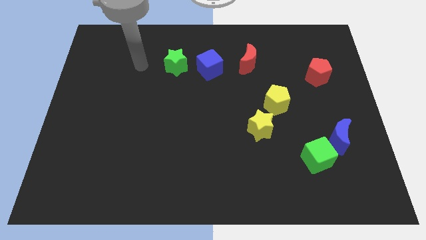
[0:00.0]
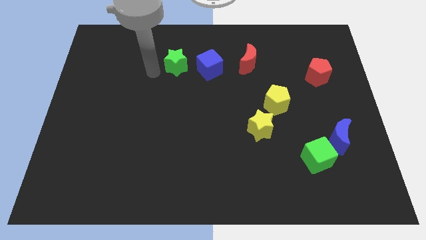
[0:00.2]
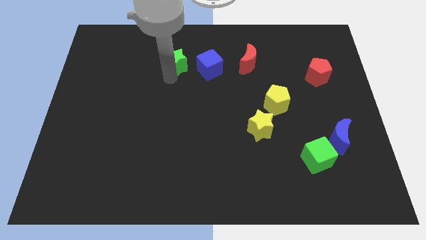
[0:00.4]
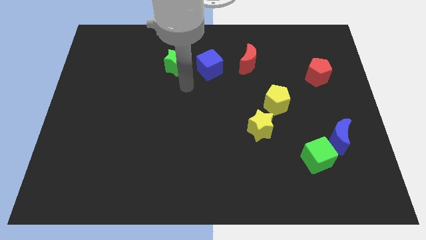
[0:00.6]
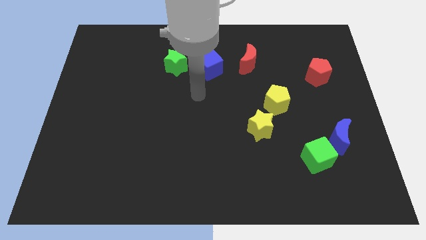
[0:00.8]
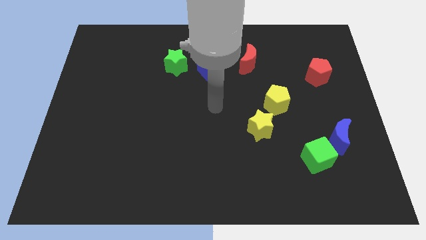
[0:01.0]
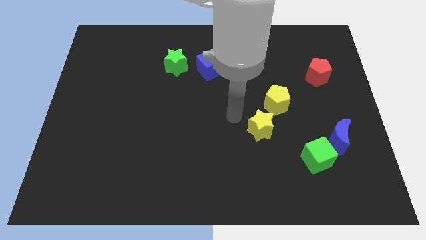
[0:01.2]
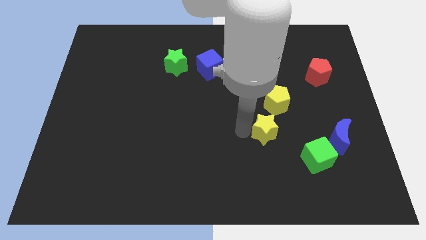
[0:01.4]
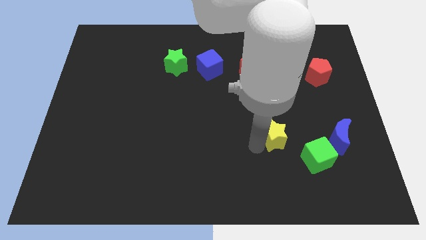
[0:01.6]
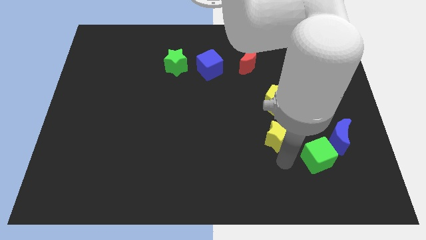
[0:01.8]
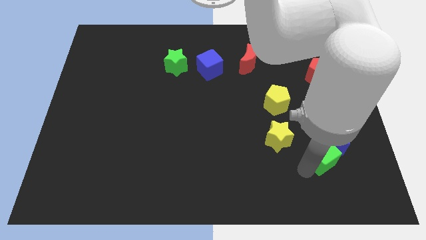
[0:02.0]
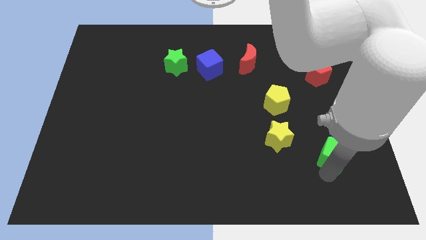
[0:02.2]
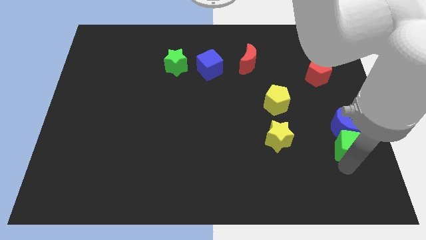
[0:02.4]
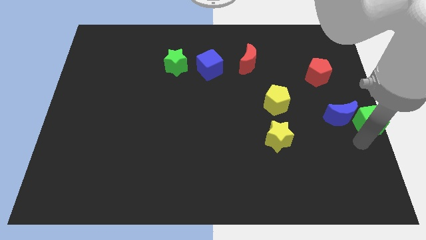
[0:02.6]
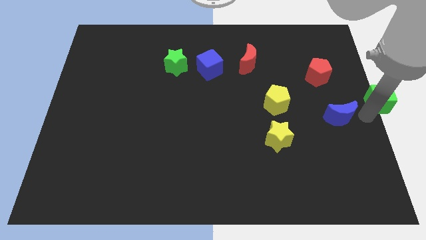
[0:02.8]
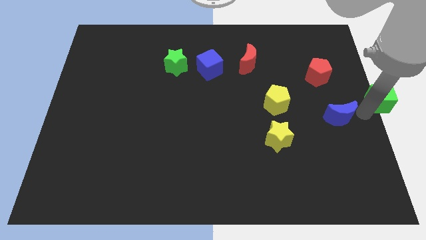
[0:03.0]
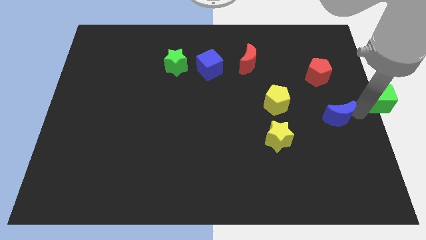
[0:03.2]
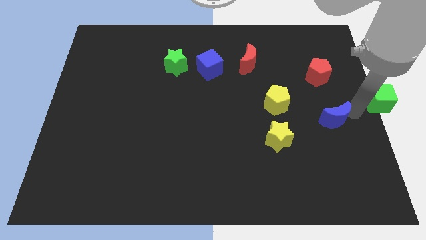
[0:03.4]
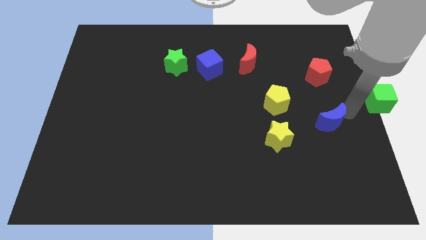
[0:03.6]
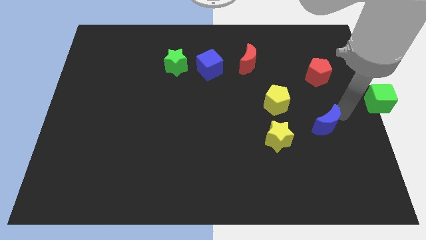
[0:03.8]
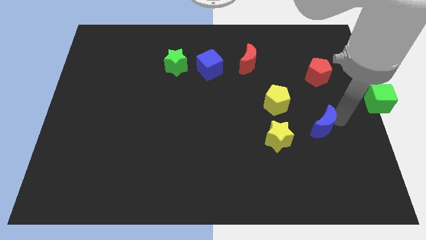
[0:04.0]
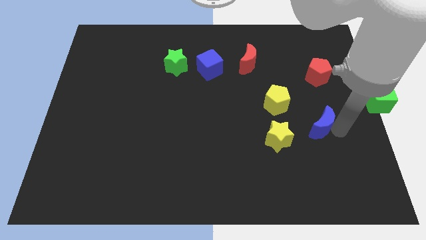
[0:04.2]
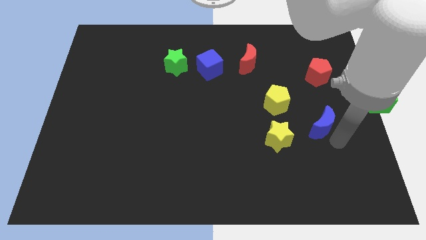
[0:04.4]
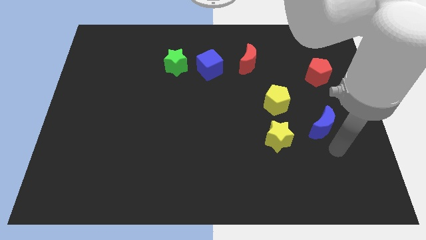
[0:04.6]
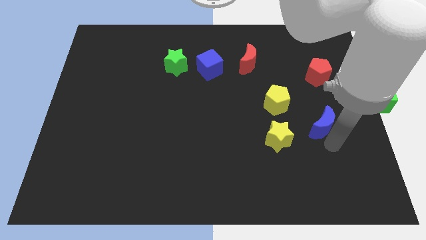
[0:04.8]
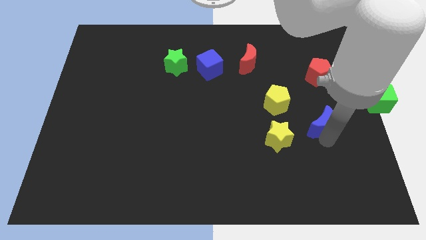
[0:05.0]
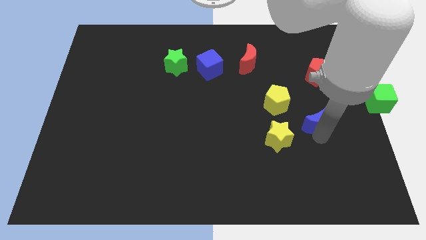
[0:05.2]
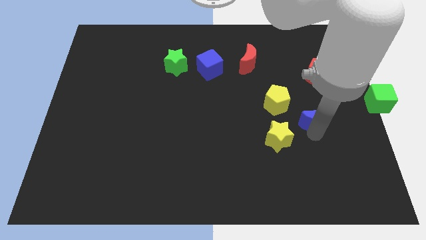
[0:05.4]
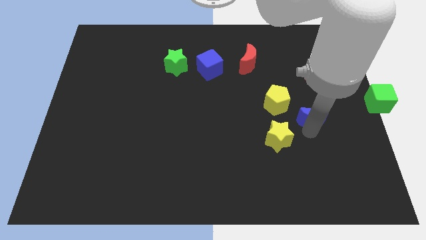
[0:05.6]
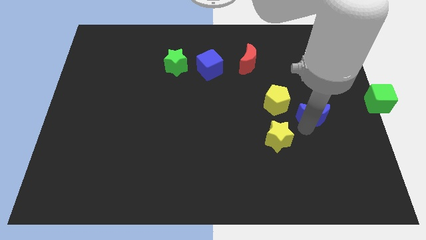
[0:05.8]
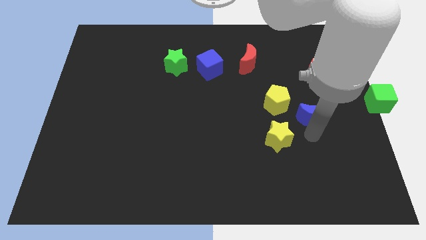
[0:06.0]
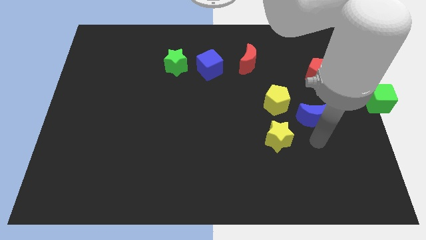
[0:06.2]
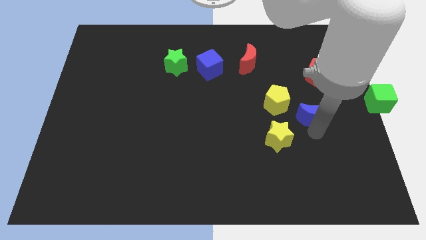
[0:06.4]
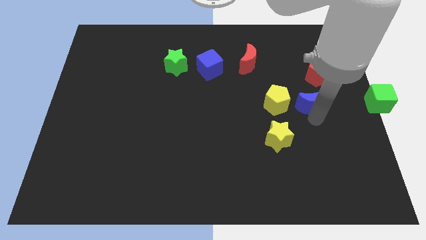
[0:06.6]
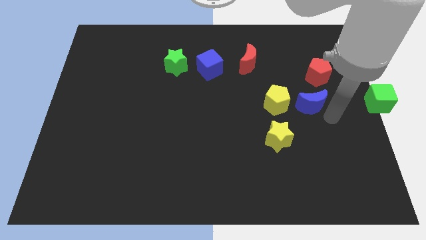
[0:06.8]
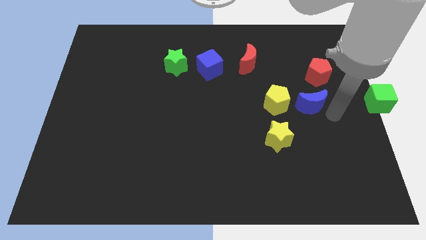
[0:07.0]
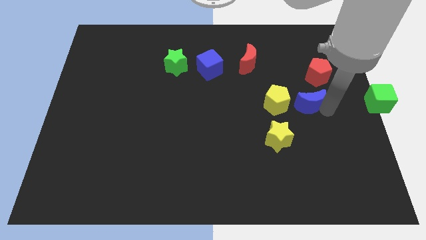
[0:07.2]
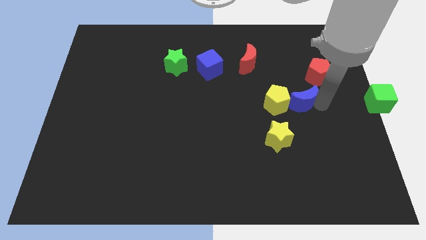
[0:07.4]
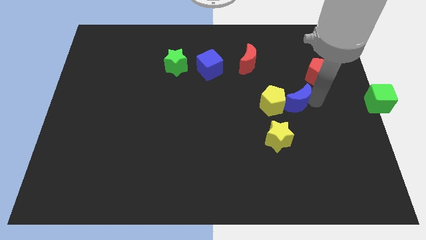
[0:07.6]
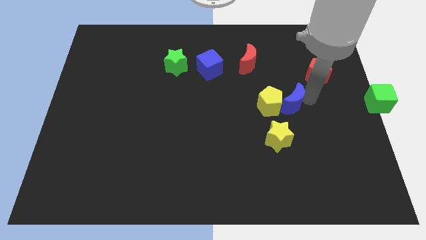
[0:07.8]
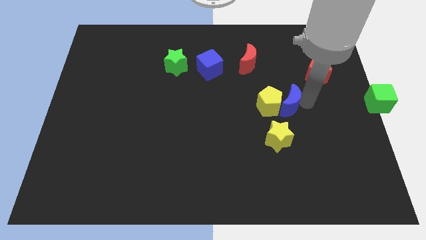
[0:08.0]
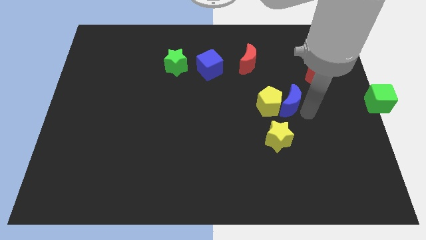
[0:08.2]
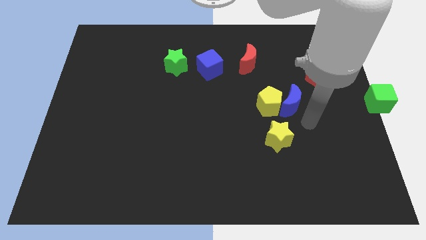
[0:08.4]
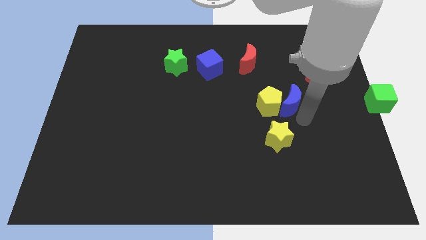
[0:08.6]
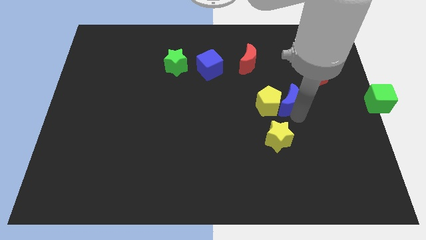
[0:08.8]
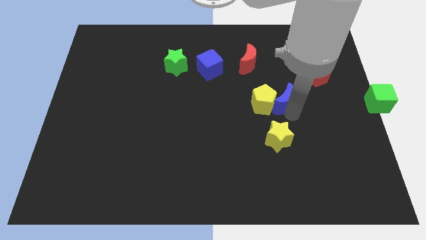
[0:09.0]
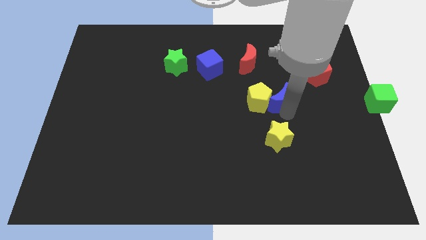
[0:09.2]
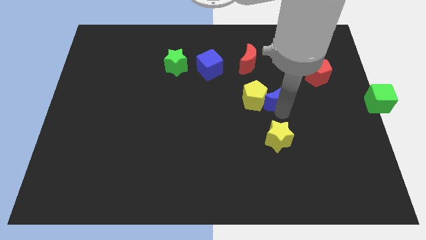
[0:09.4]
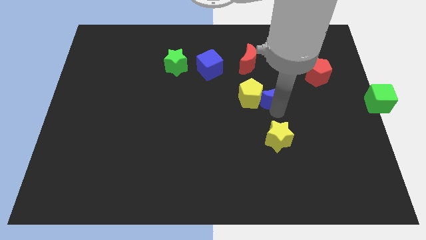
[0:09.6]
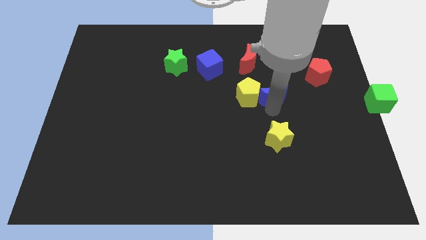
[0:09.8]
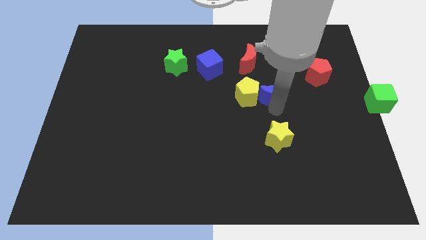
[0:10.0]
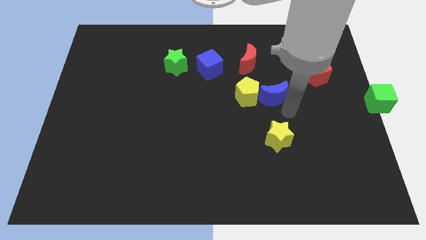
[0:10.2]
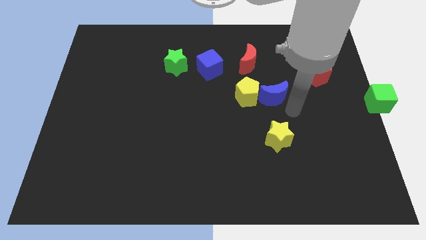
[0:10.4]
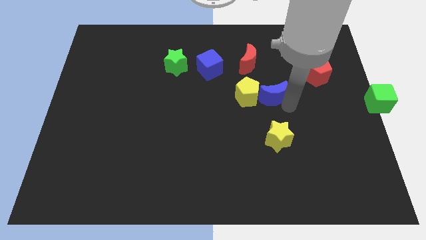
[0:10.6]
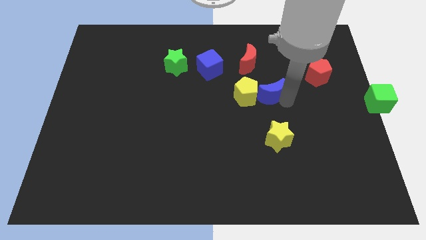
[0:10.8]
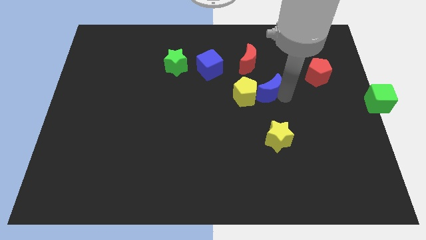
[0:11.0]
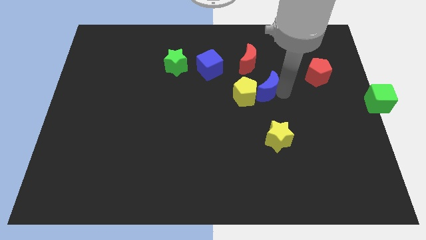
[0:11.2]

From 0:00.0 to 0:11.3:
slide the blue moon upwards and to the left

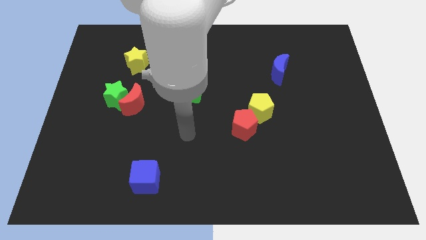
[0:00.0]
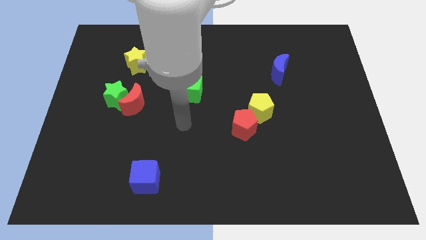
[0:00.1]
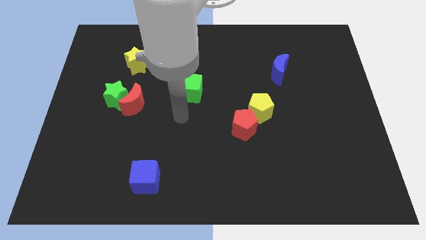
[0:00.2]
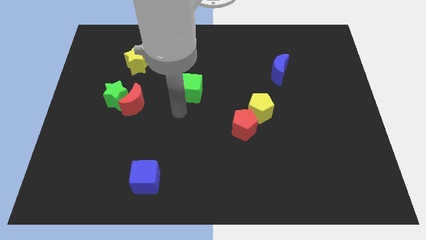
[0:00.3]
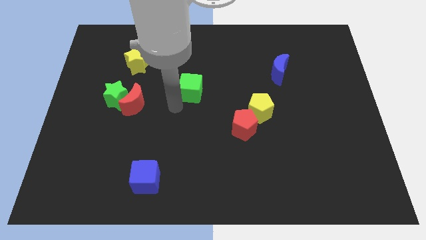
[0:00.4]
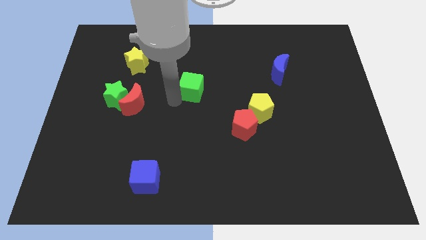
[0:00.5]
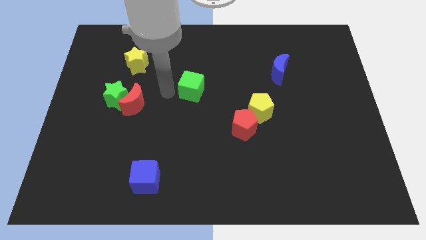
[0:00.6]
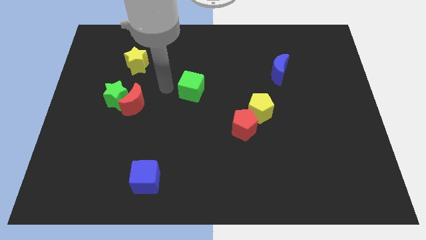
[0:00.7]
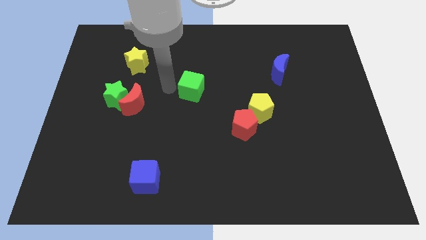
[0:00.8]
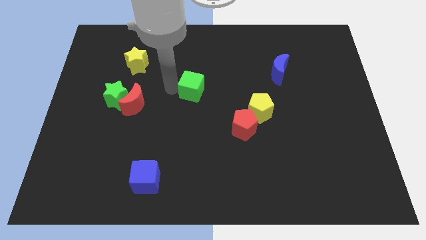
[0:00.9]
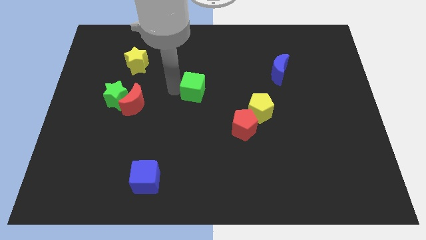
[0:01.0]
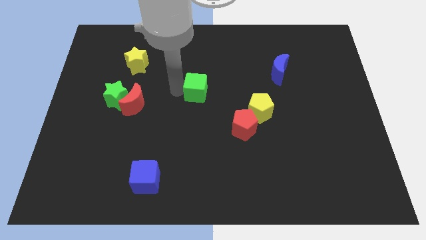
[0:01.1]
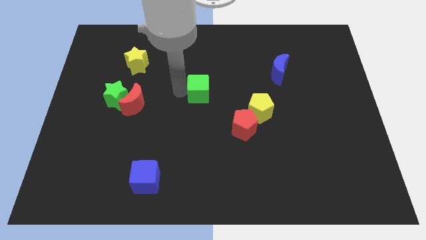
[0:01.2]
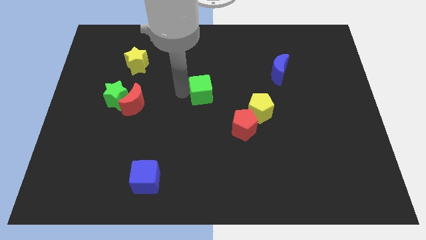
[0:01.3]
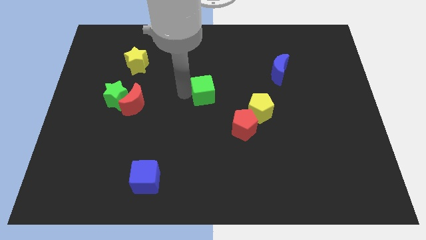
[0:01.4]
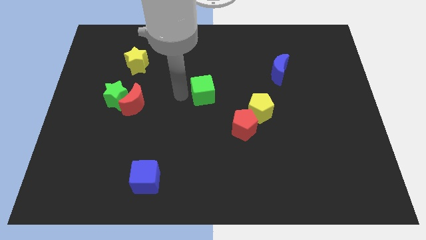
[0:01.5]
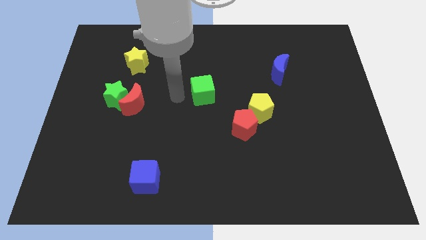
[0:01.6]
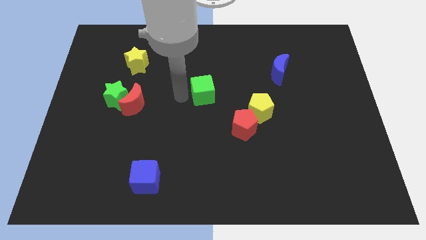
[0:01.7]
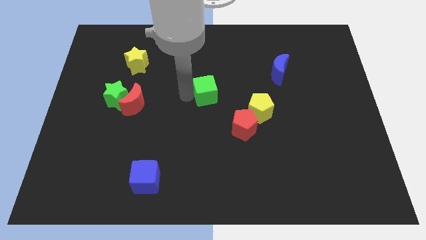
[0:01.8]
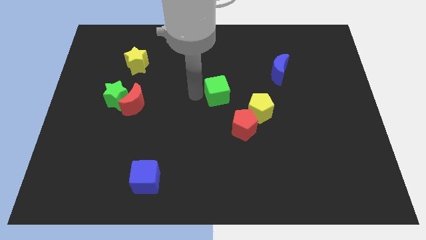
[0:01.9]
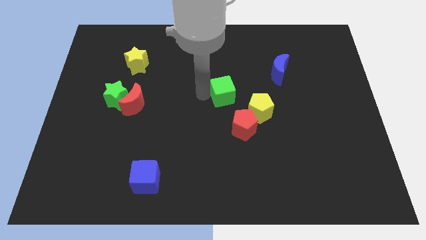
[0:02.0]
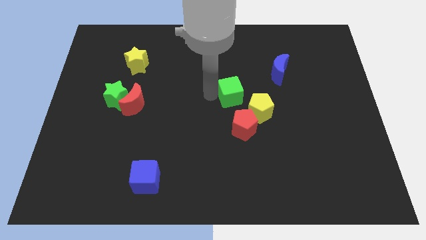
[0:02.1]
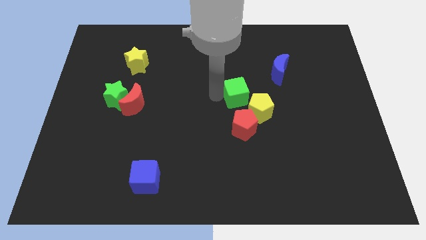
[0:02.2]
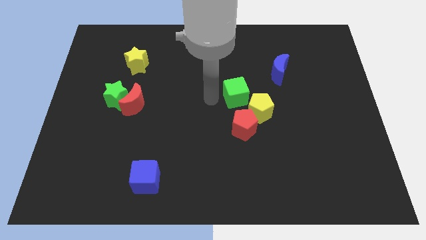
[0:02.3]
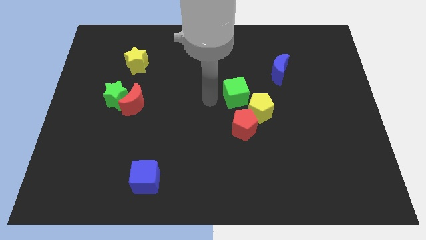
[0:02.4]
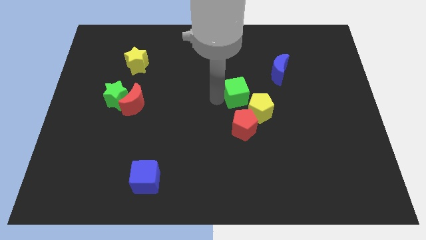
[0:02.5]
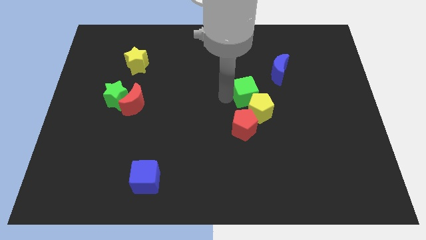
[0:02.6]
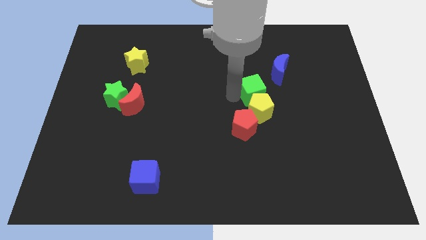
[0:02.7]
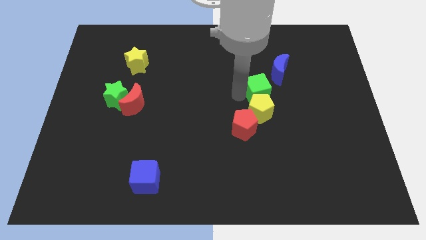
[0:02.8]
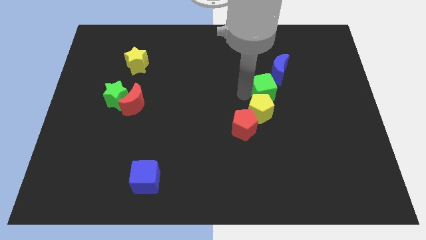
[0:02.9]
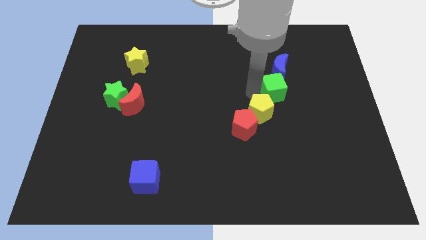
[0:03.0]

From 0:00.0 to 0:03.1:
move the green cube to the right
